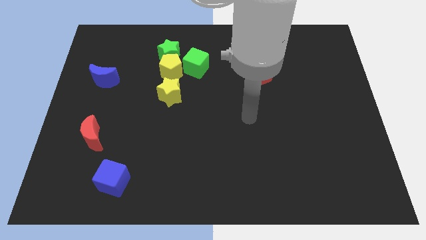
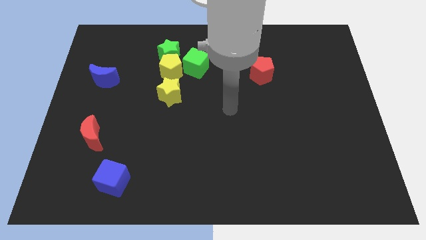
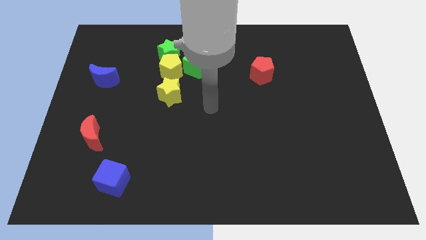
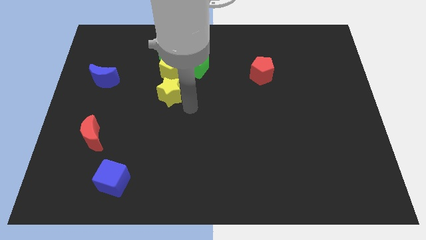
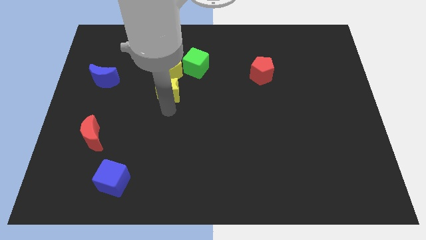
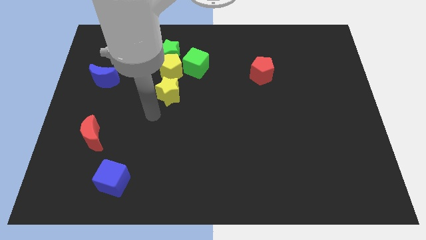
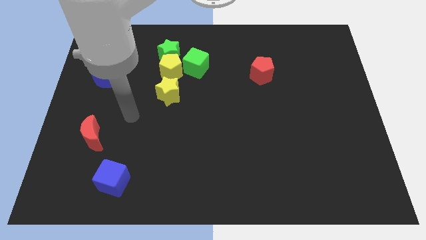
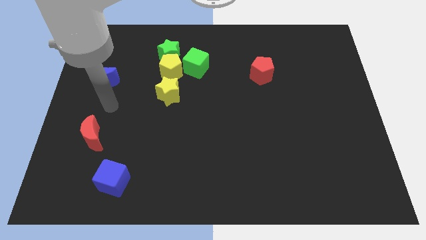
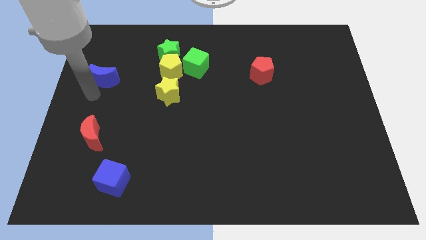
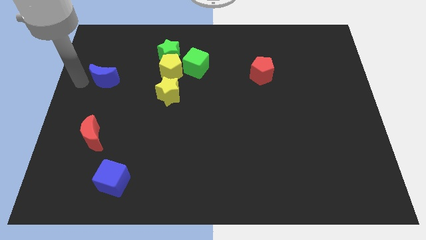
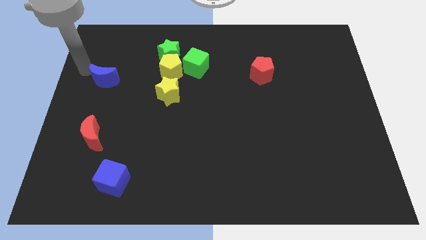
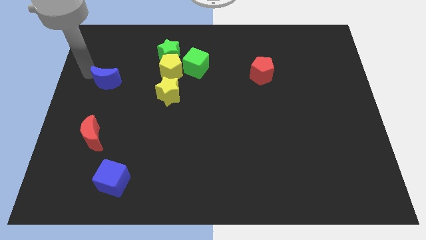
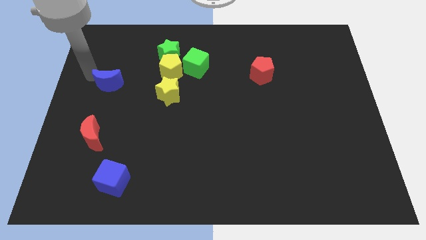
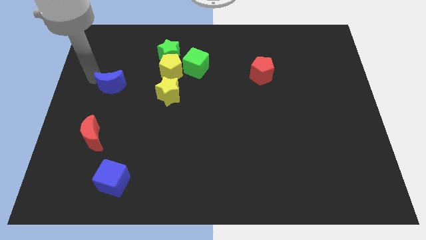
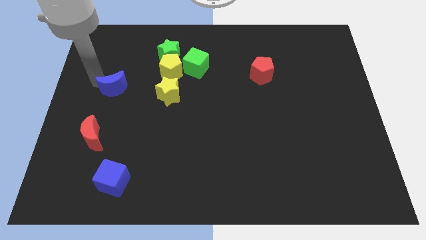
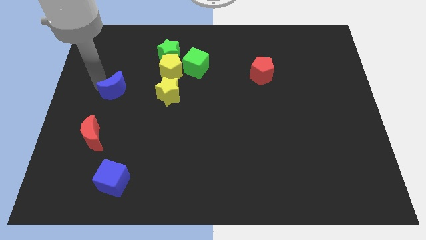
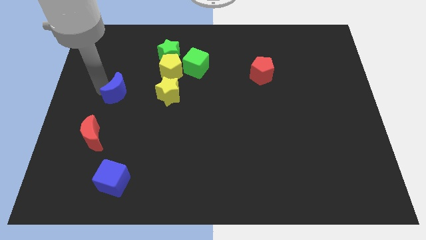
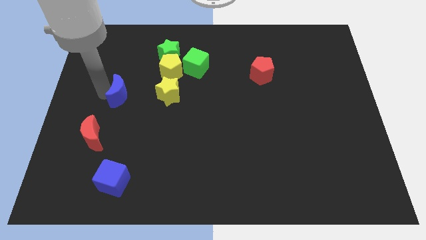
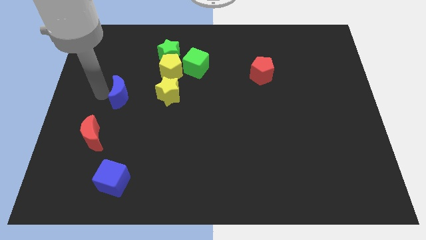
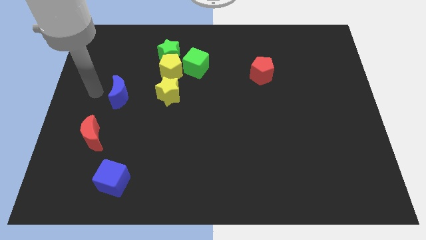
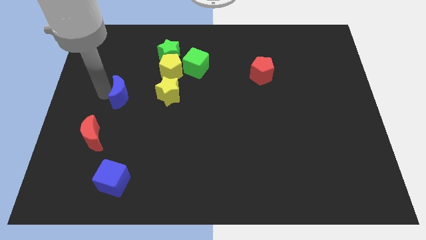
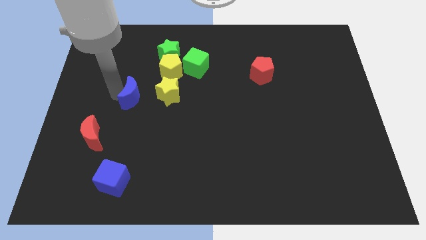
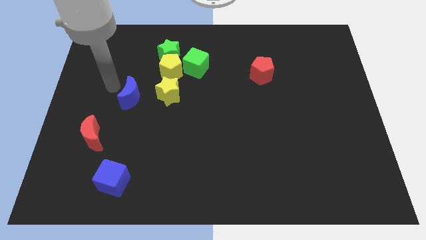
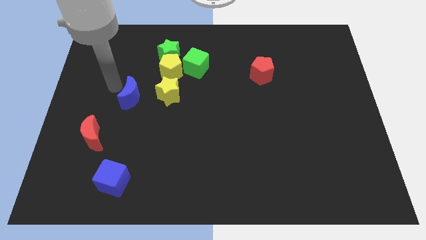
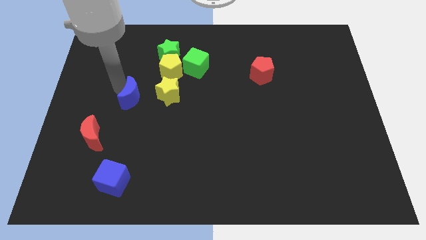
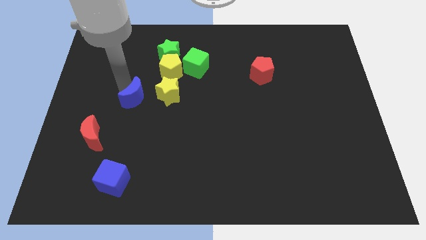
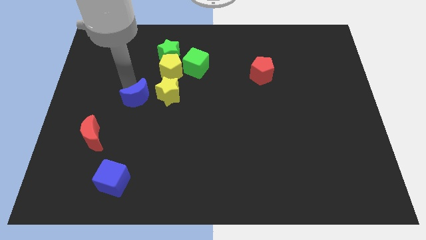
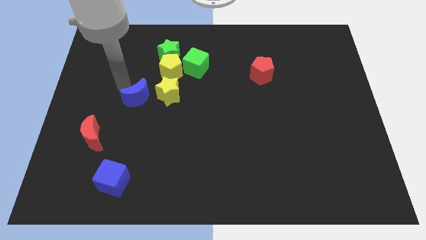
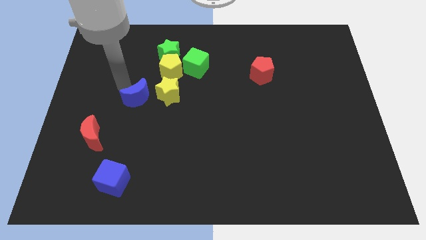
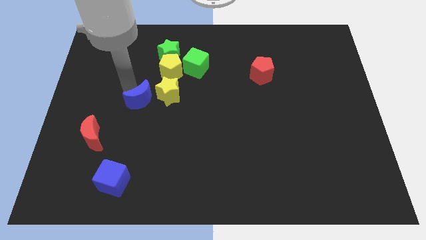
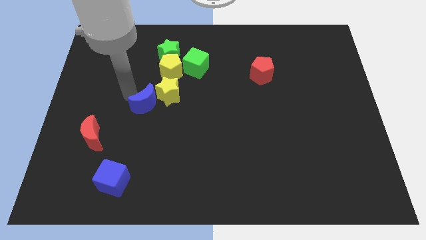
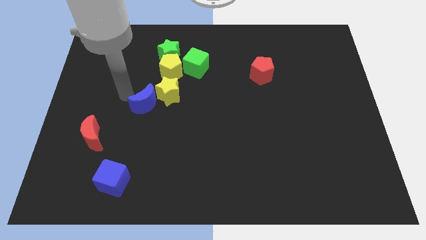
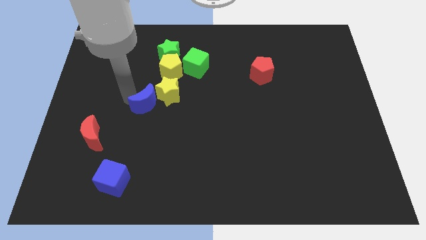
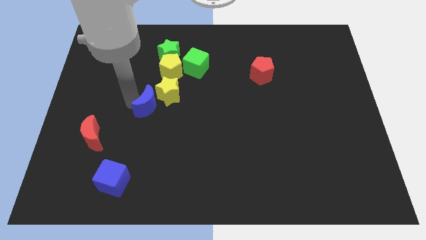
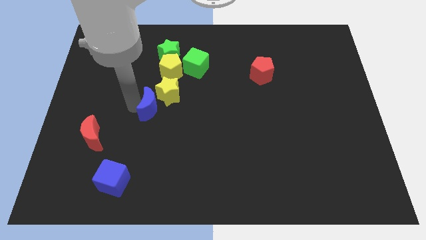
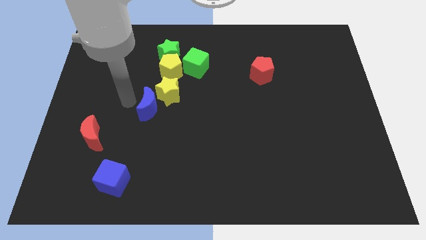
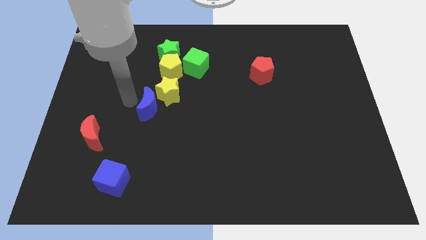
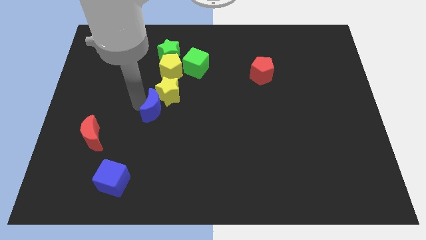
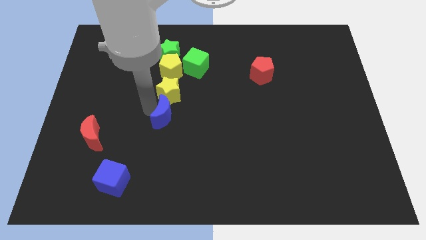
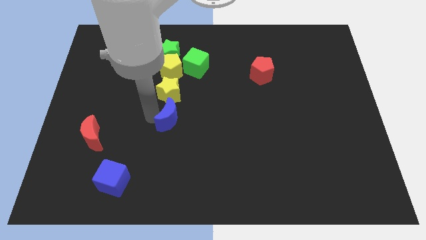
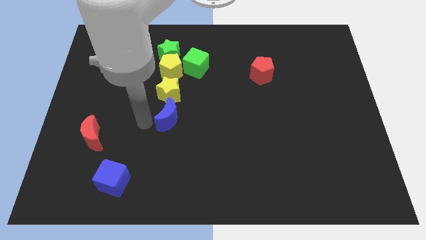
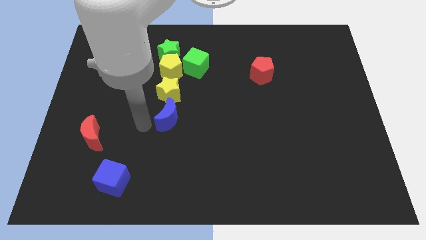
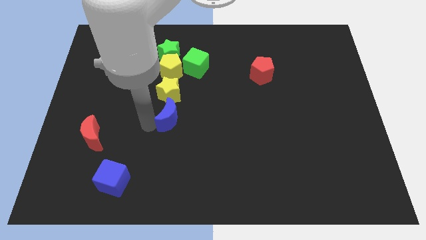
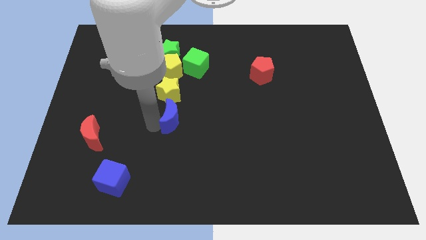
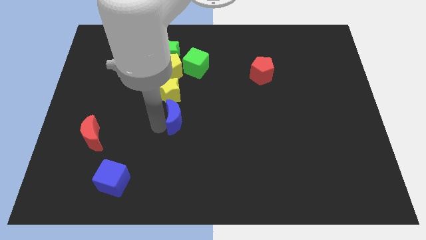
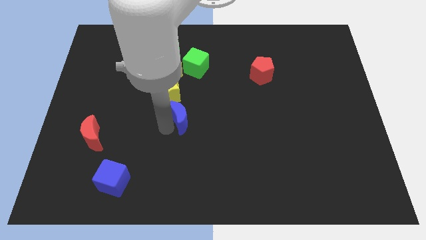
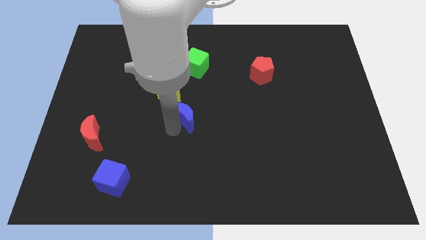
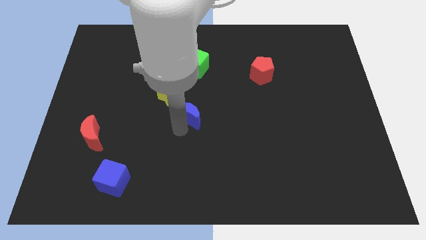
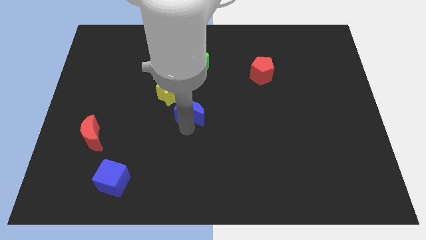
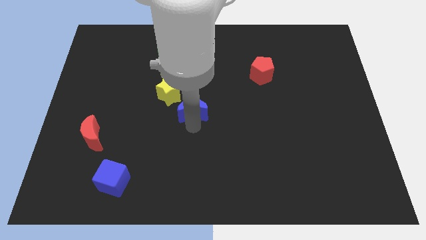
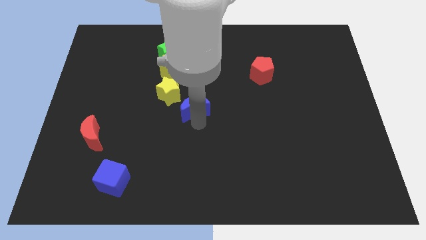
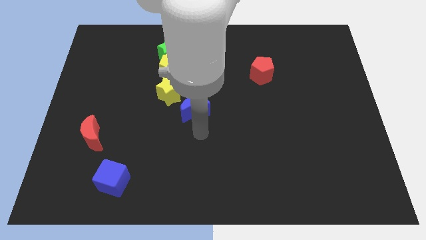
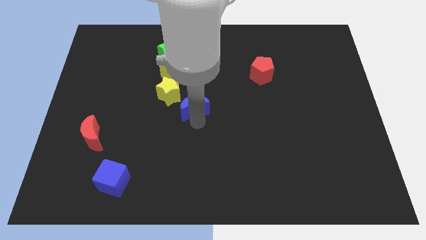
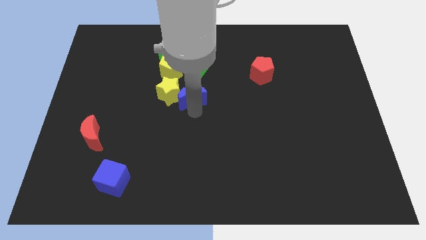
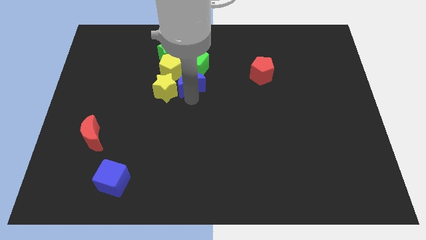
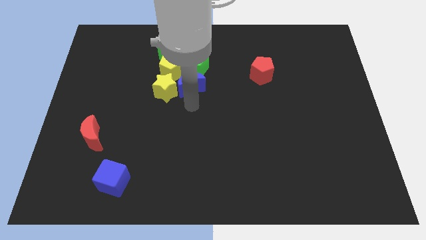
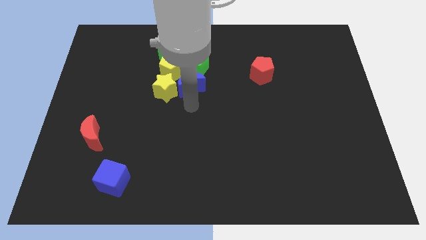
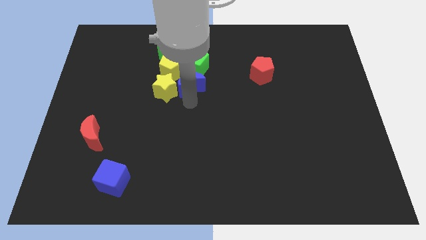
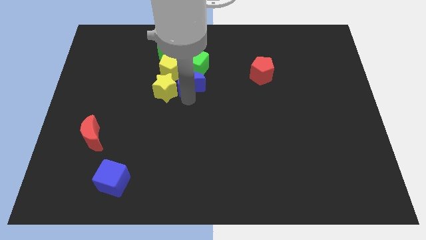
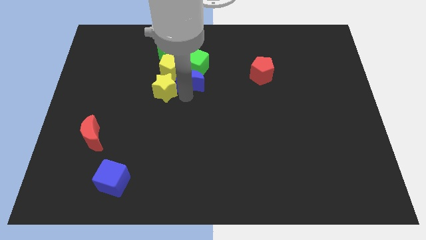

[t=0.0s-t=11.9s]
move the blue moon next to the green cube

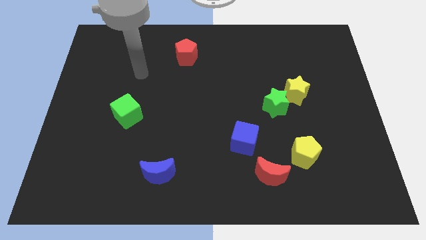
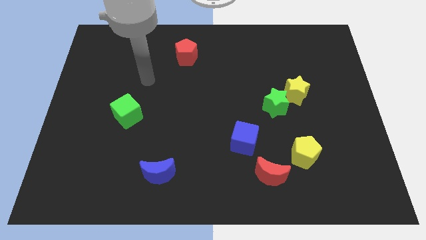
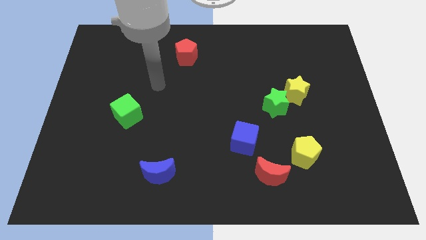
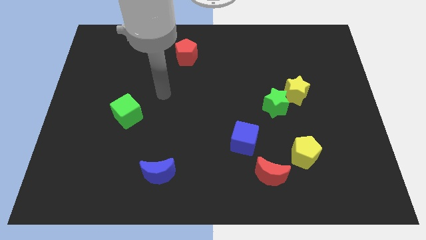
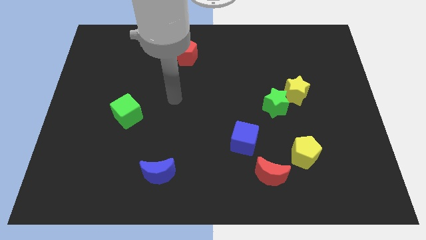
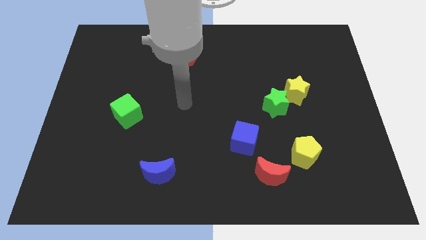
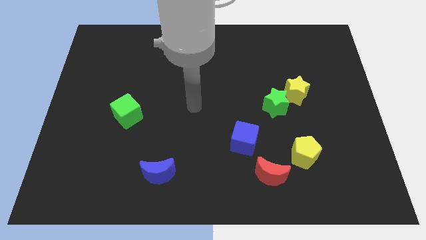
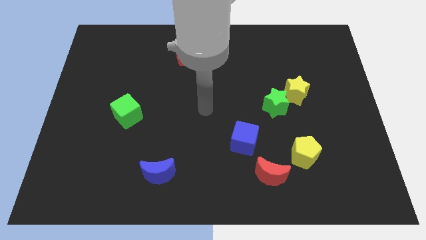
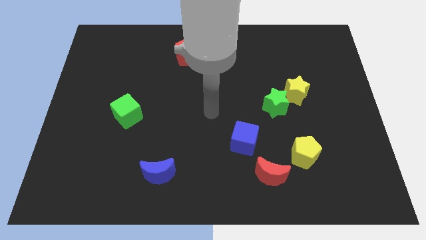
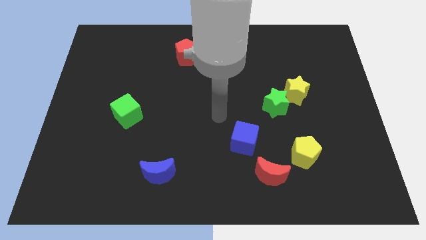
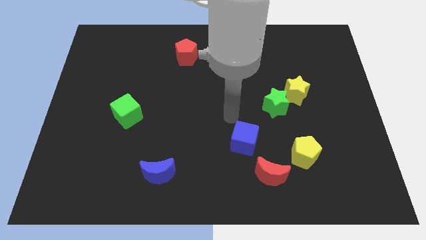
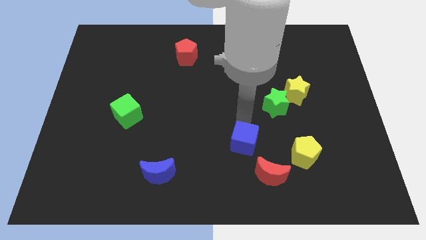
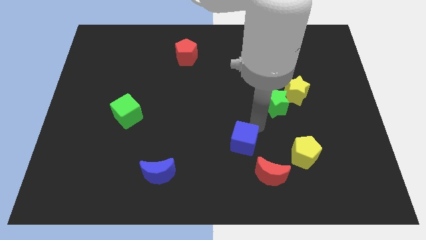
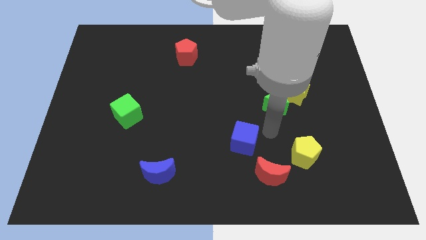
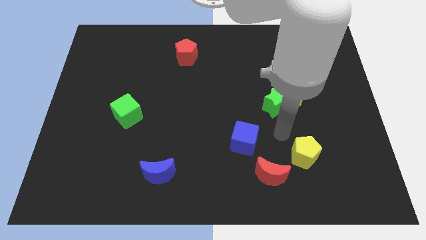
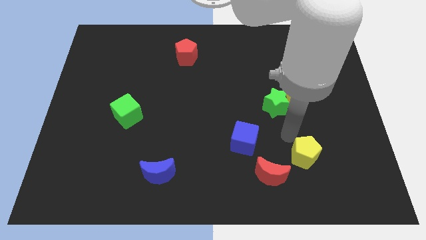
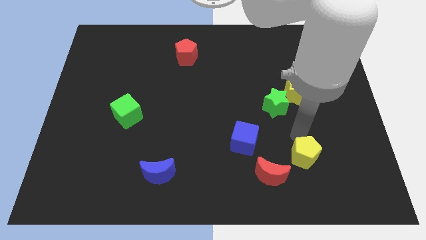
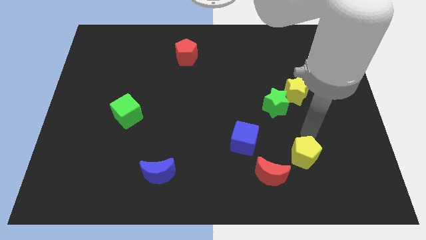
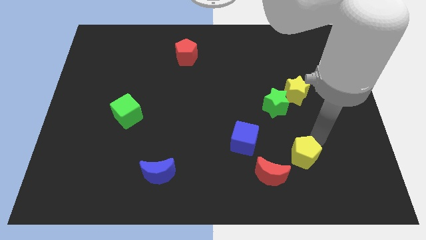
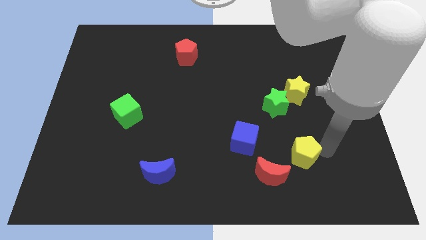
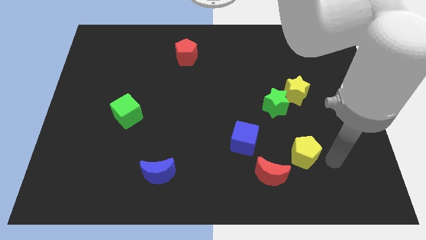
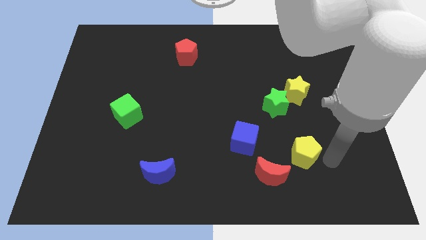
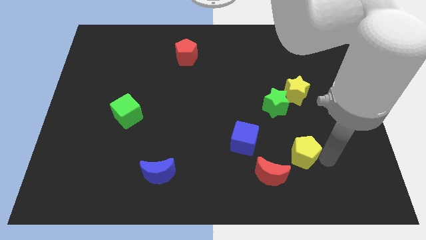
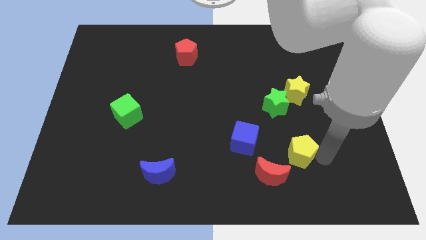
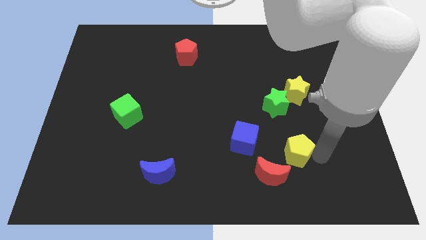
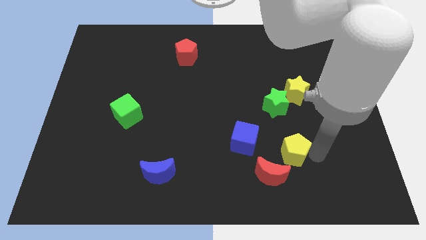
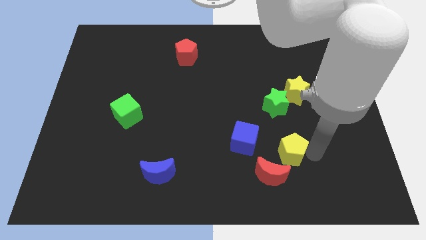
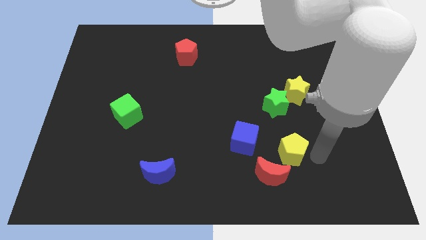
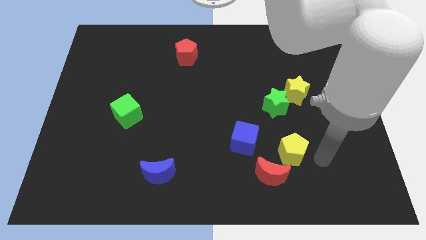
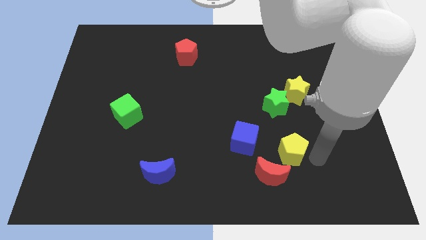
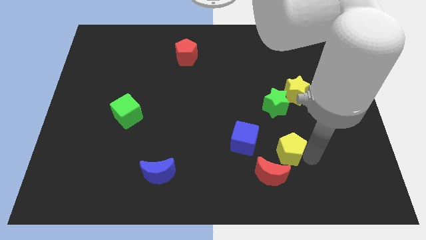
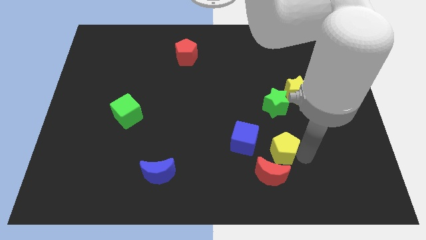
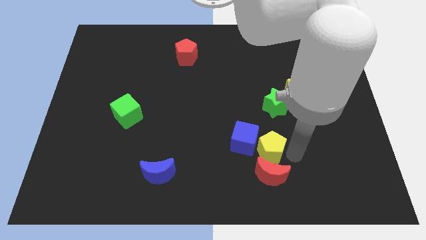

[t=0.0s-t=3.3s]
move the yellow pentagon towards the blue cube
